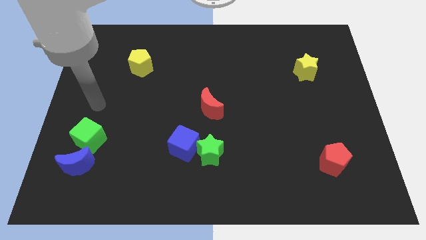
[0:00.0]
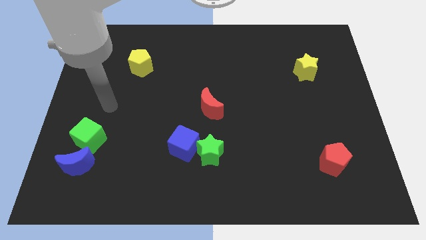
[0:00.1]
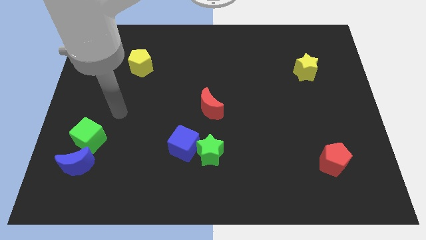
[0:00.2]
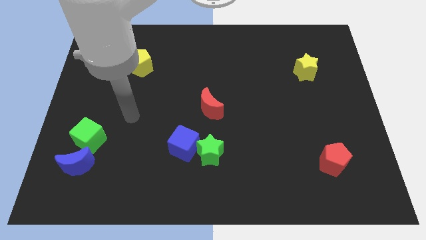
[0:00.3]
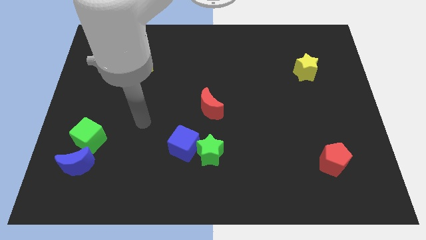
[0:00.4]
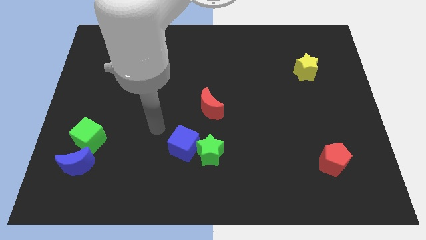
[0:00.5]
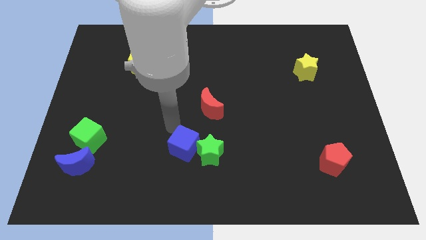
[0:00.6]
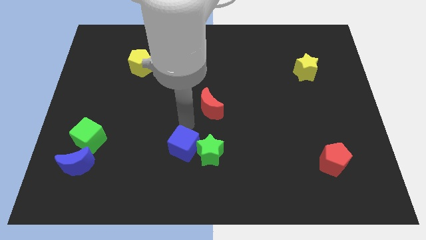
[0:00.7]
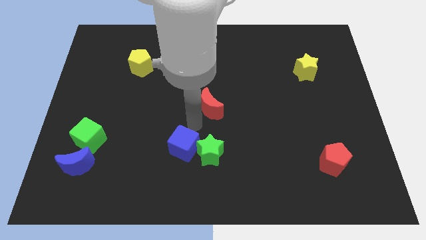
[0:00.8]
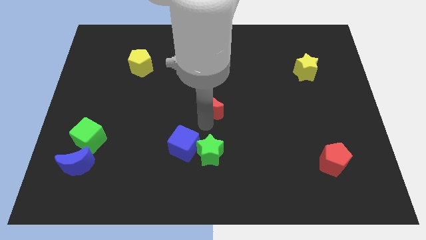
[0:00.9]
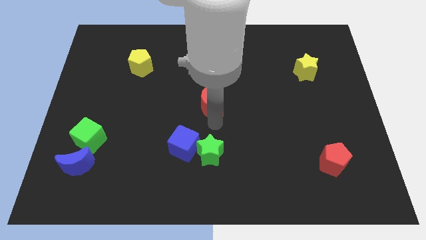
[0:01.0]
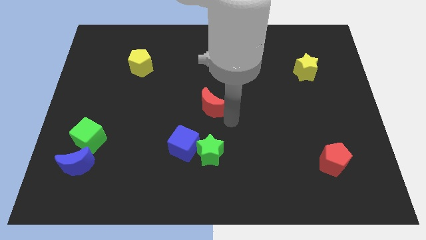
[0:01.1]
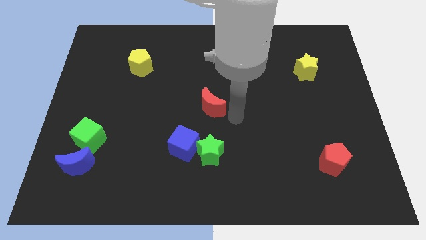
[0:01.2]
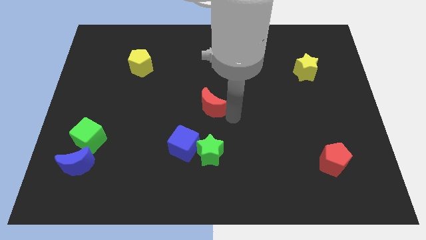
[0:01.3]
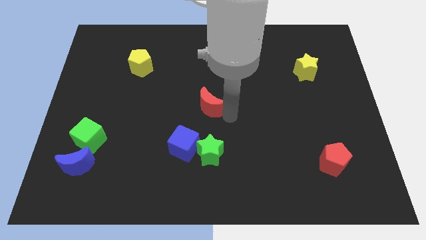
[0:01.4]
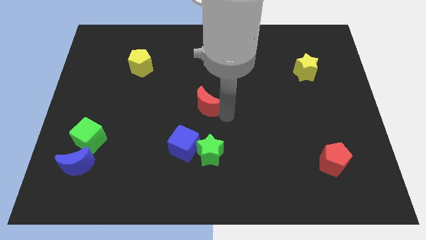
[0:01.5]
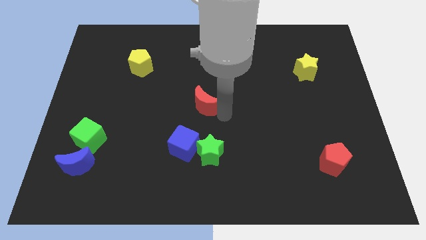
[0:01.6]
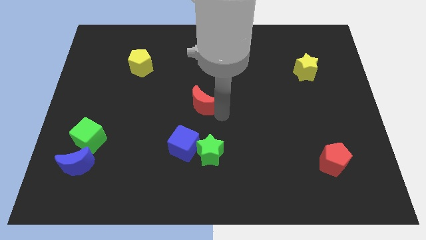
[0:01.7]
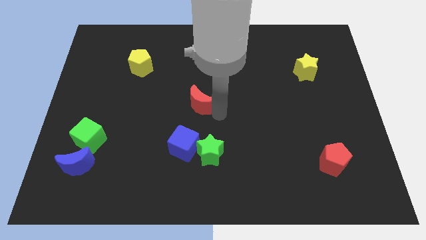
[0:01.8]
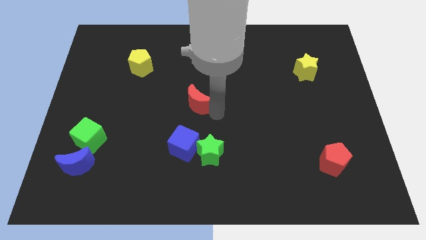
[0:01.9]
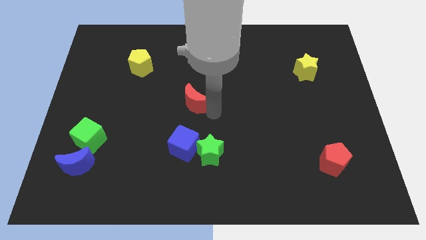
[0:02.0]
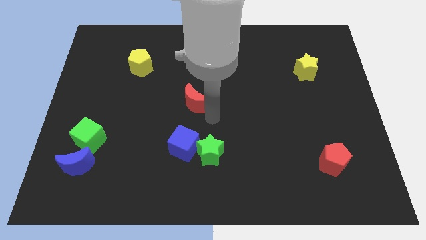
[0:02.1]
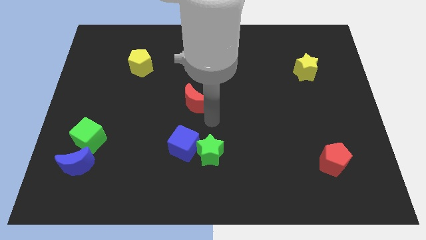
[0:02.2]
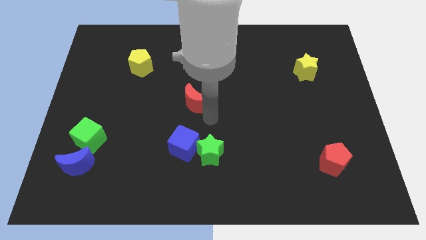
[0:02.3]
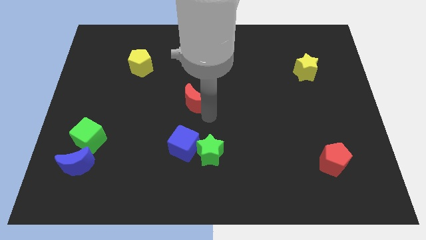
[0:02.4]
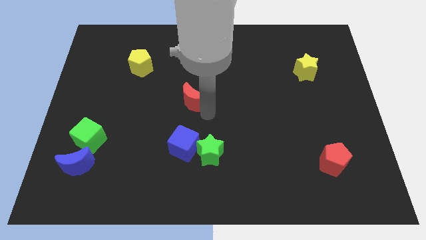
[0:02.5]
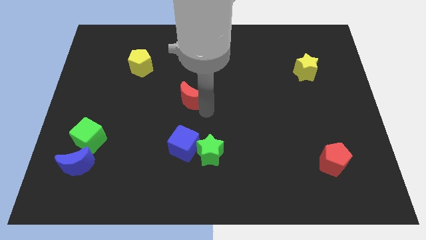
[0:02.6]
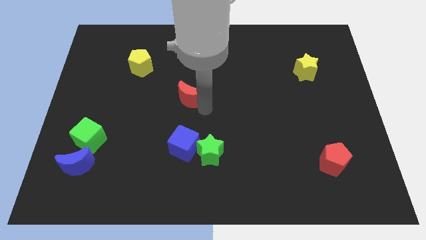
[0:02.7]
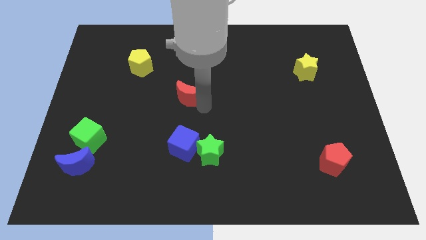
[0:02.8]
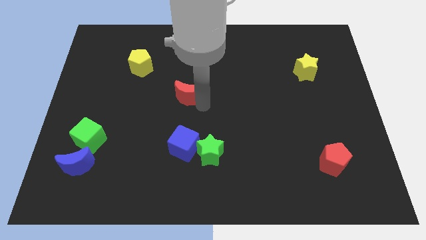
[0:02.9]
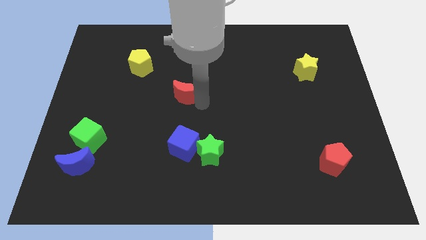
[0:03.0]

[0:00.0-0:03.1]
slightly slide the red moon up and left

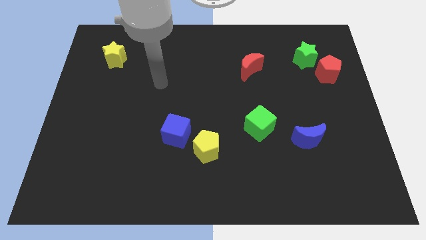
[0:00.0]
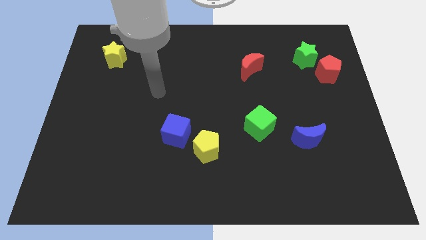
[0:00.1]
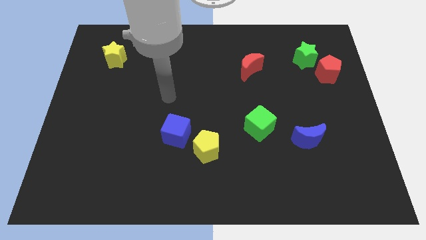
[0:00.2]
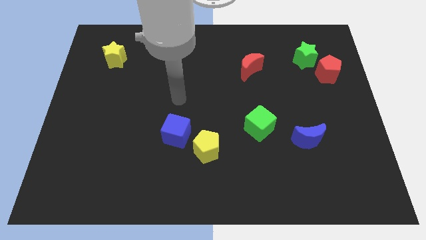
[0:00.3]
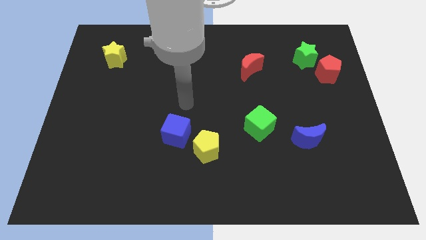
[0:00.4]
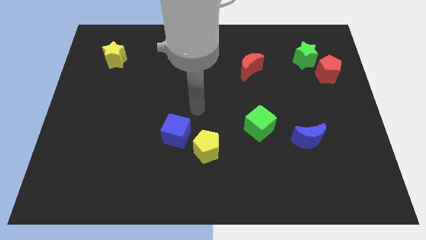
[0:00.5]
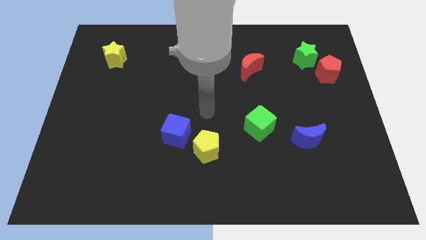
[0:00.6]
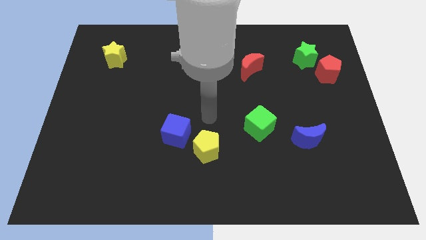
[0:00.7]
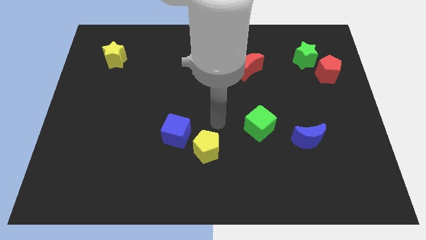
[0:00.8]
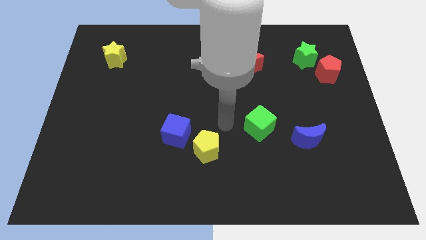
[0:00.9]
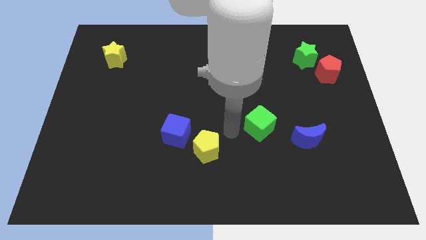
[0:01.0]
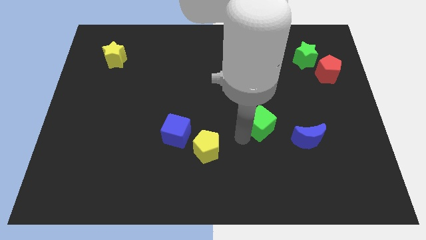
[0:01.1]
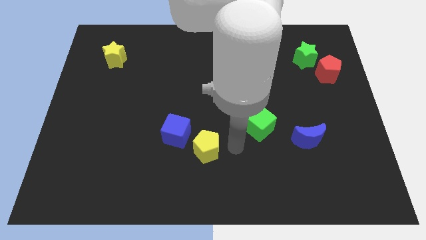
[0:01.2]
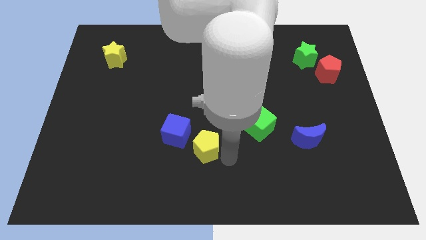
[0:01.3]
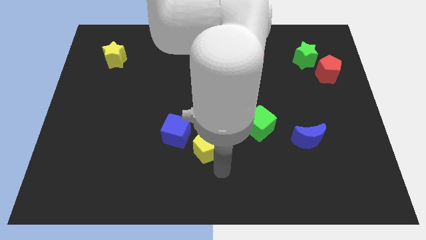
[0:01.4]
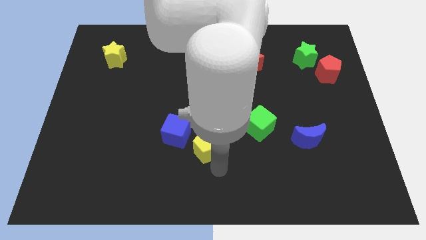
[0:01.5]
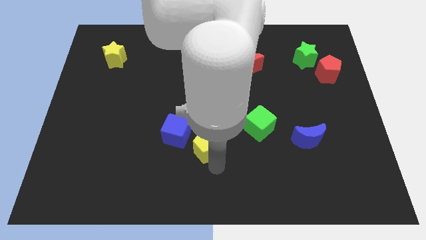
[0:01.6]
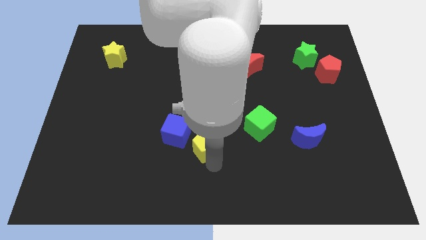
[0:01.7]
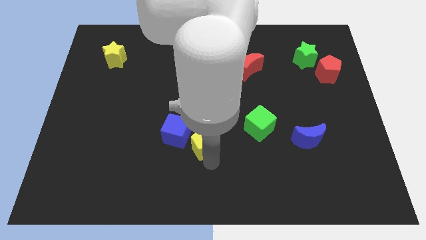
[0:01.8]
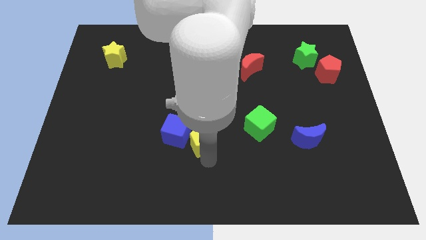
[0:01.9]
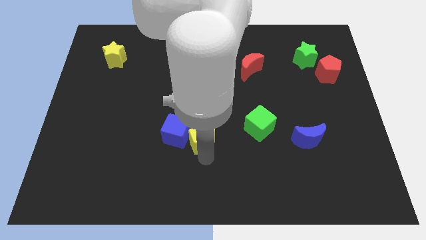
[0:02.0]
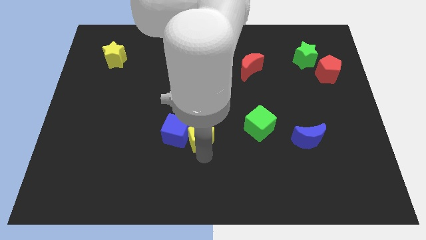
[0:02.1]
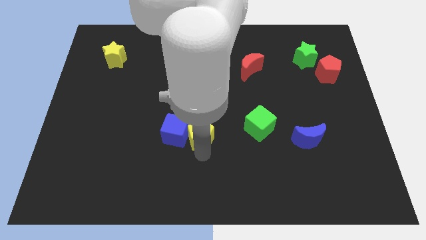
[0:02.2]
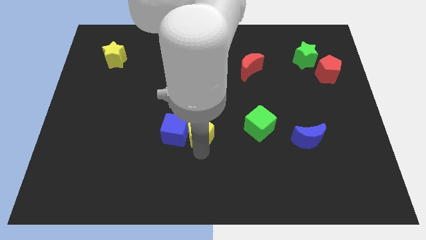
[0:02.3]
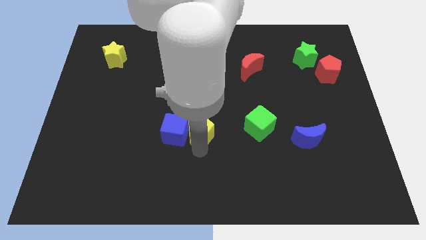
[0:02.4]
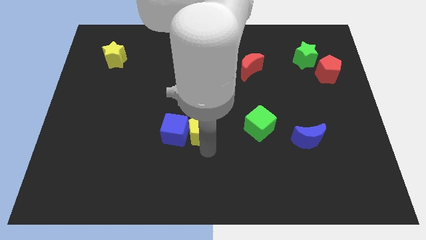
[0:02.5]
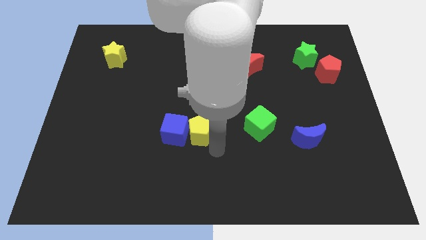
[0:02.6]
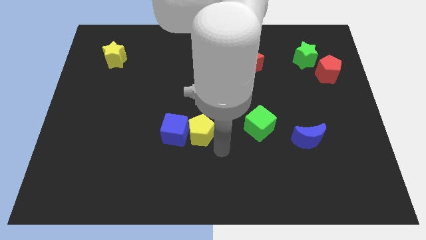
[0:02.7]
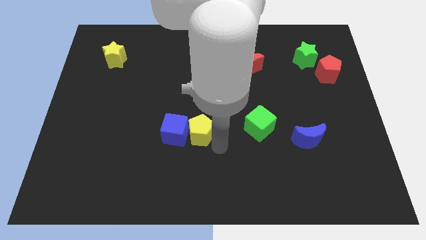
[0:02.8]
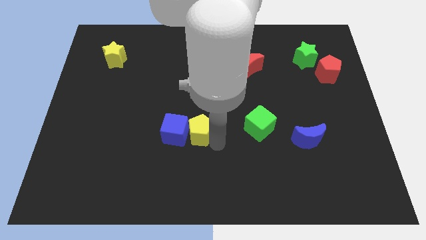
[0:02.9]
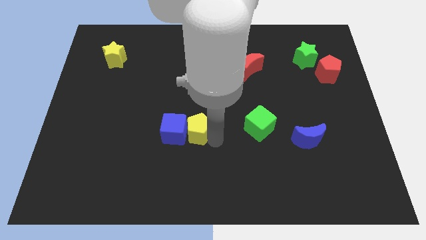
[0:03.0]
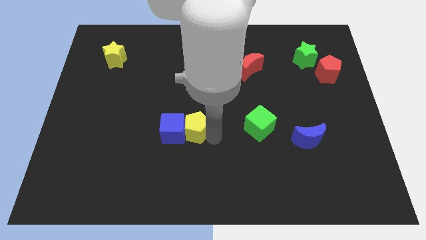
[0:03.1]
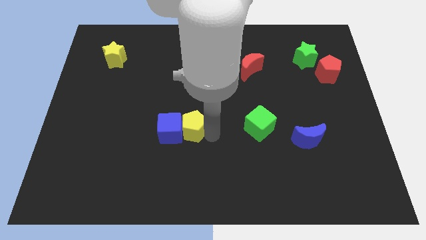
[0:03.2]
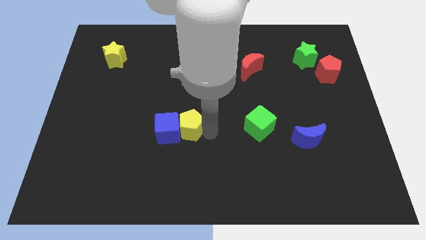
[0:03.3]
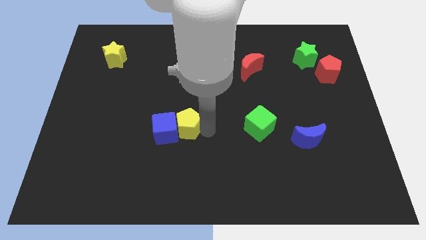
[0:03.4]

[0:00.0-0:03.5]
slightly slide the yellow pentagon upwards and to the left diagonally

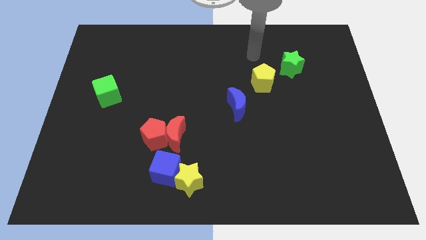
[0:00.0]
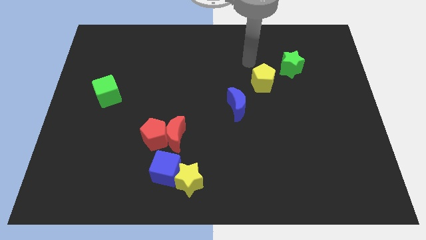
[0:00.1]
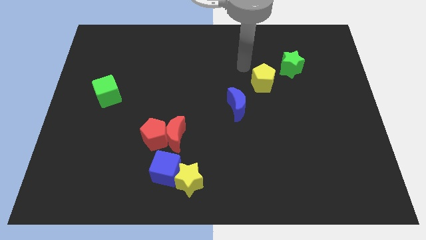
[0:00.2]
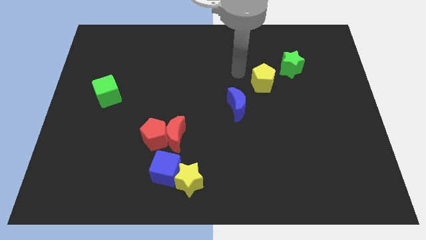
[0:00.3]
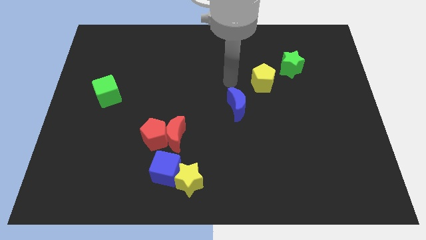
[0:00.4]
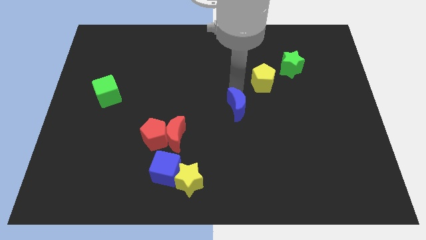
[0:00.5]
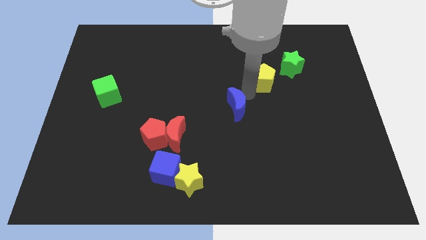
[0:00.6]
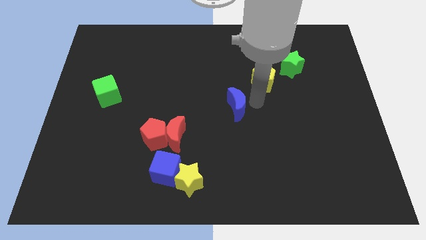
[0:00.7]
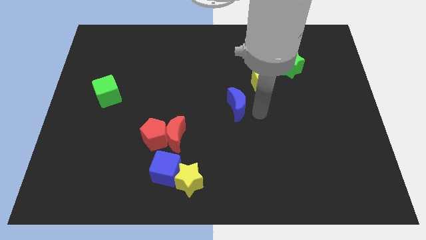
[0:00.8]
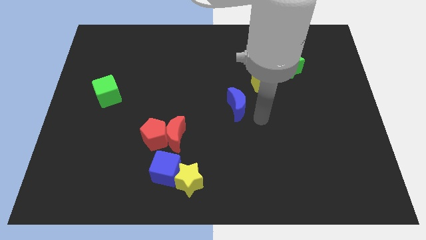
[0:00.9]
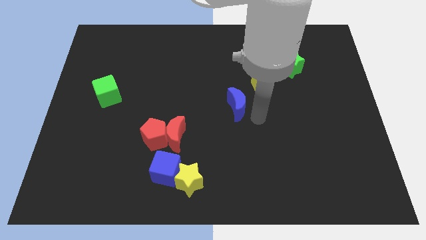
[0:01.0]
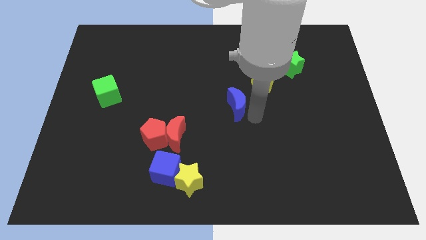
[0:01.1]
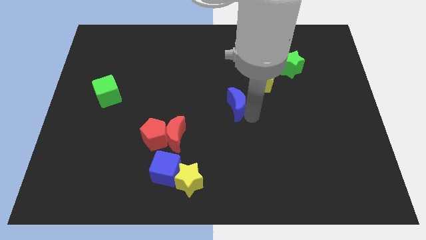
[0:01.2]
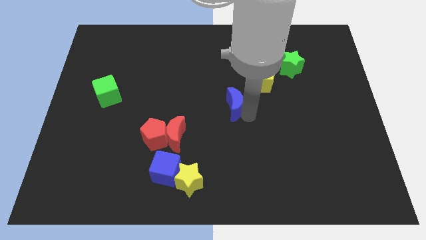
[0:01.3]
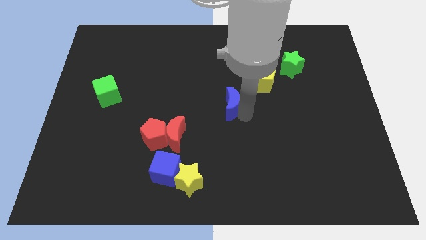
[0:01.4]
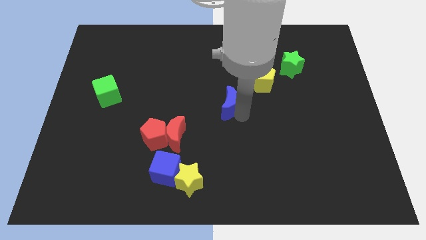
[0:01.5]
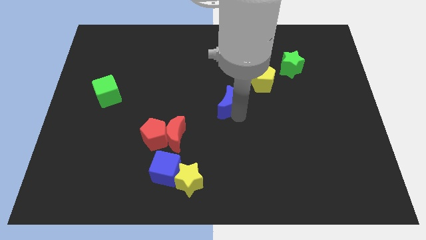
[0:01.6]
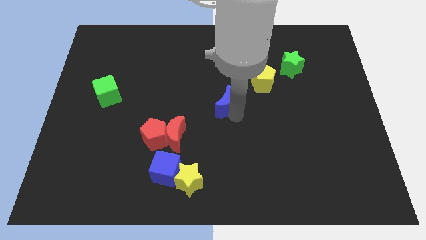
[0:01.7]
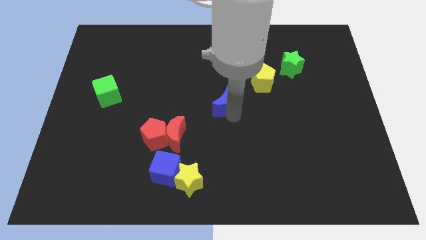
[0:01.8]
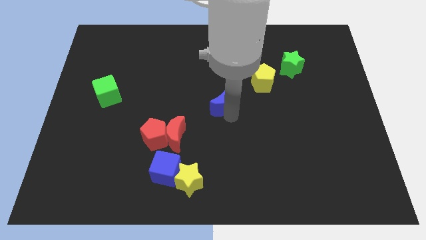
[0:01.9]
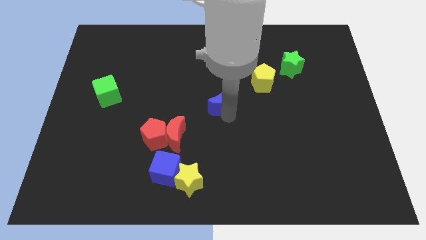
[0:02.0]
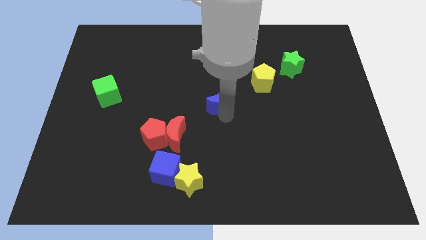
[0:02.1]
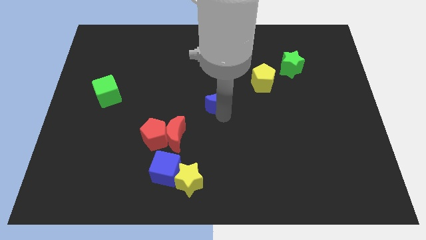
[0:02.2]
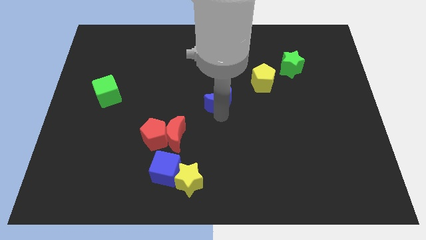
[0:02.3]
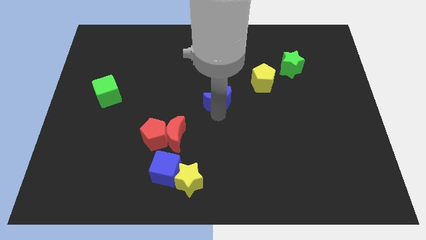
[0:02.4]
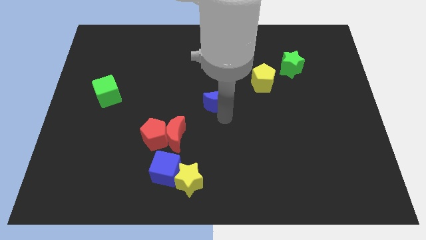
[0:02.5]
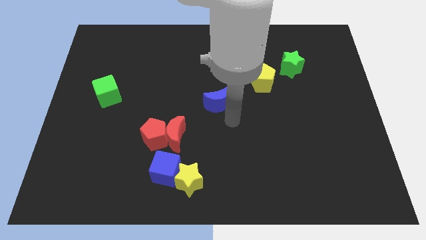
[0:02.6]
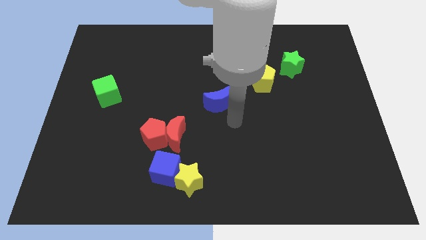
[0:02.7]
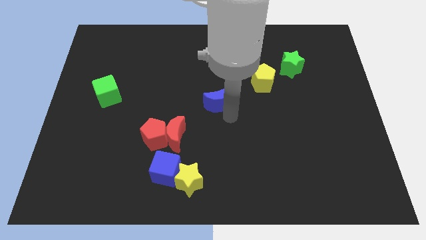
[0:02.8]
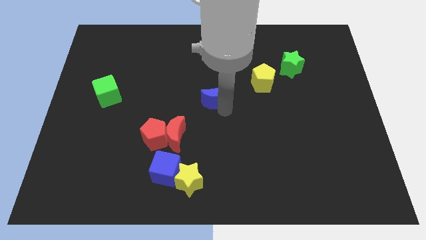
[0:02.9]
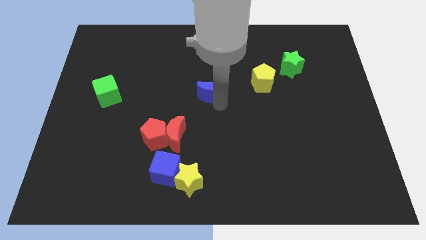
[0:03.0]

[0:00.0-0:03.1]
slide the blue moon up and then left a bit
